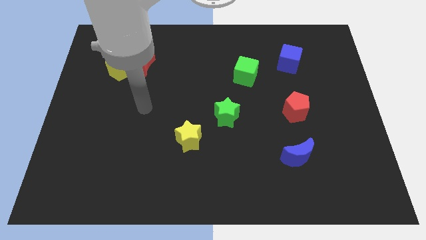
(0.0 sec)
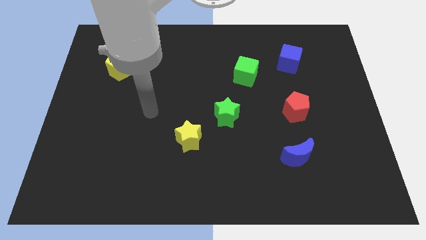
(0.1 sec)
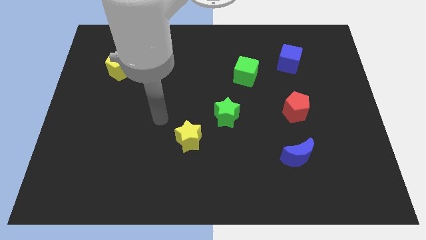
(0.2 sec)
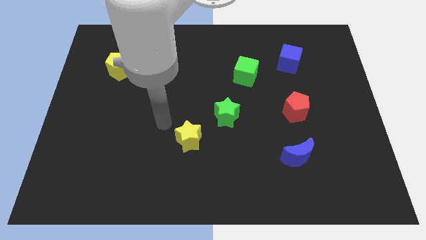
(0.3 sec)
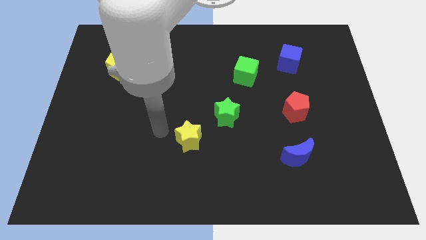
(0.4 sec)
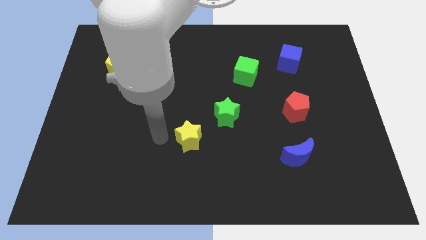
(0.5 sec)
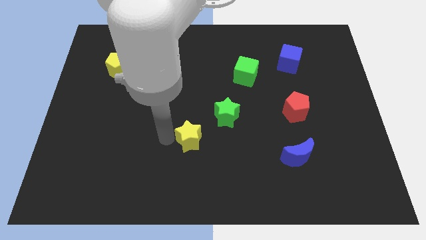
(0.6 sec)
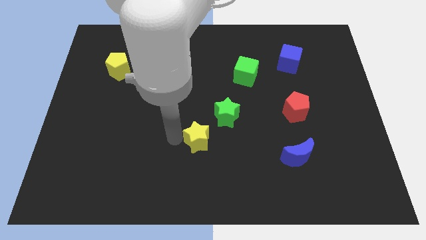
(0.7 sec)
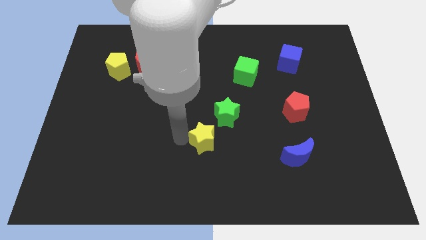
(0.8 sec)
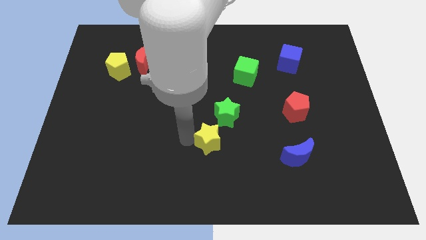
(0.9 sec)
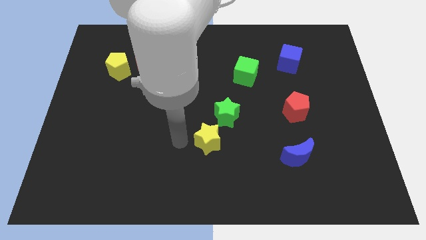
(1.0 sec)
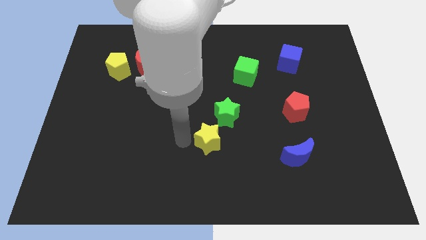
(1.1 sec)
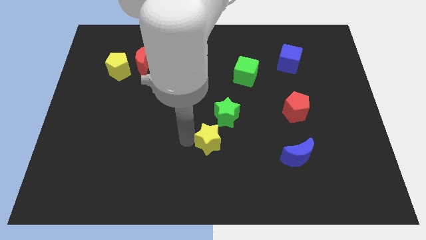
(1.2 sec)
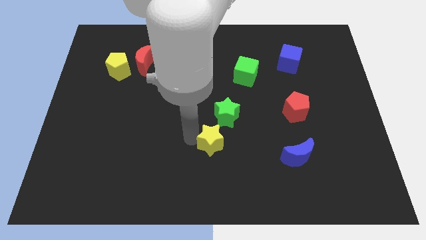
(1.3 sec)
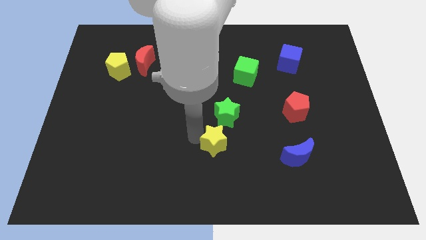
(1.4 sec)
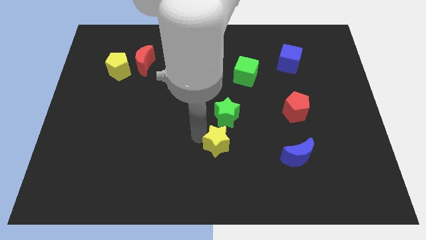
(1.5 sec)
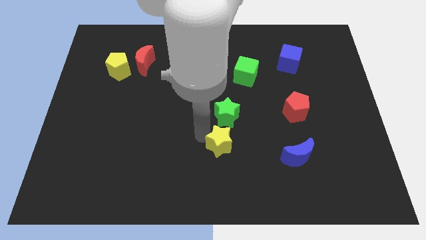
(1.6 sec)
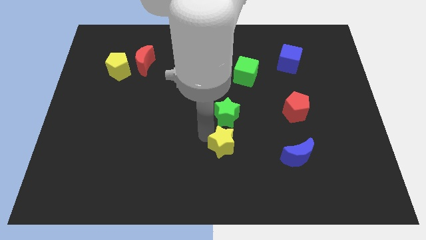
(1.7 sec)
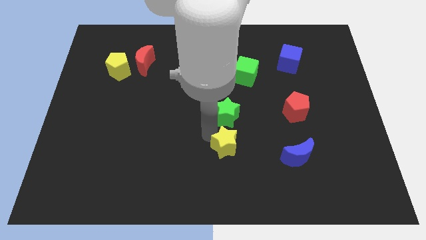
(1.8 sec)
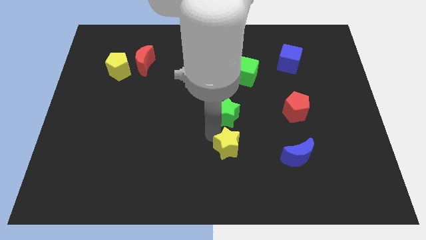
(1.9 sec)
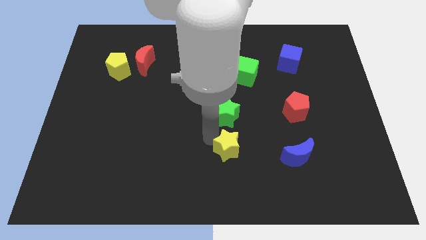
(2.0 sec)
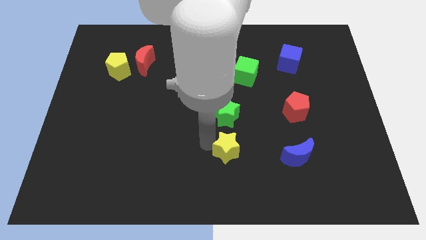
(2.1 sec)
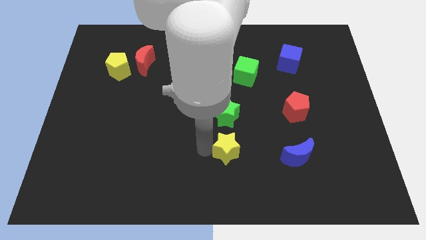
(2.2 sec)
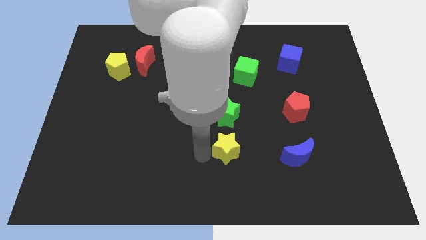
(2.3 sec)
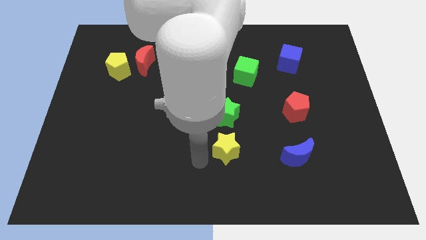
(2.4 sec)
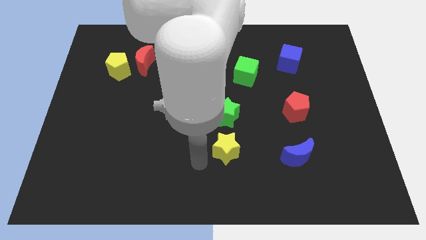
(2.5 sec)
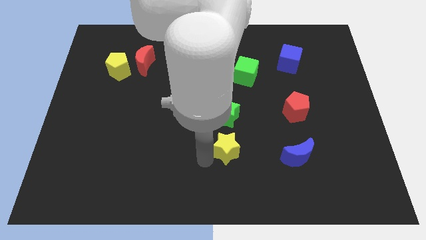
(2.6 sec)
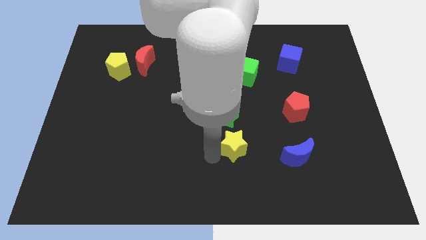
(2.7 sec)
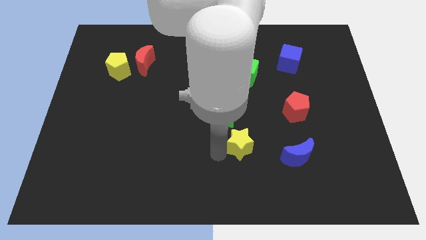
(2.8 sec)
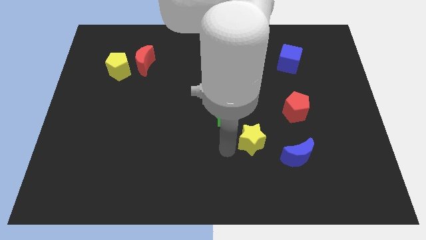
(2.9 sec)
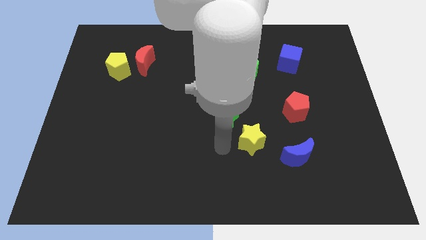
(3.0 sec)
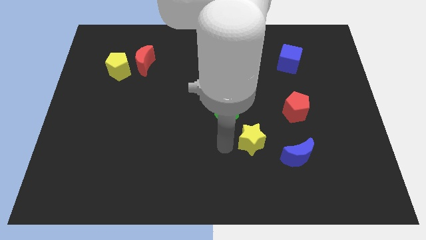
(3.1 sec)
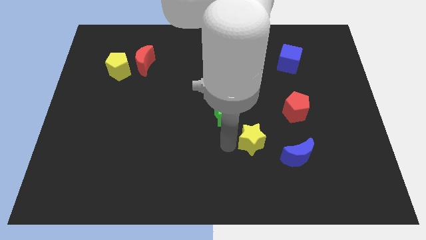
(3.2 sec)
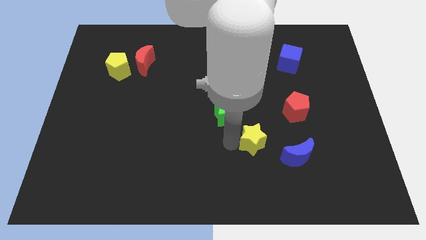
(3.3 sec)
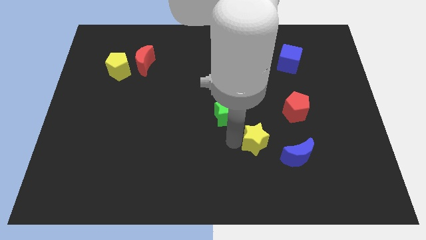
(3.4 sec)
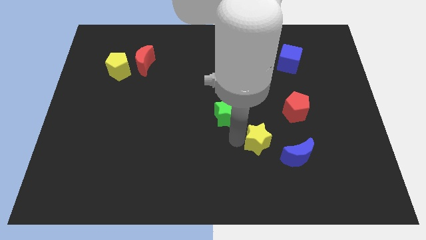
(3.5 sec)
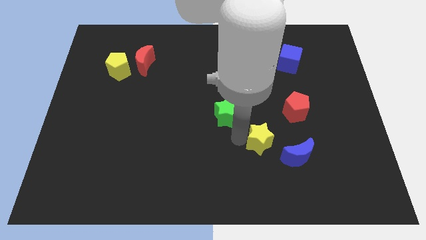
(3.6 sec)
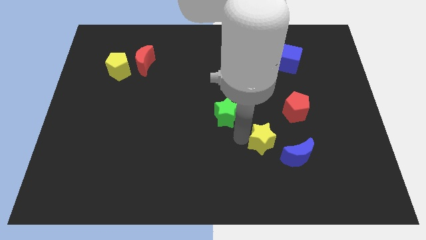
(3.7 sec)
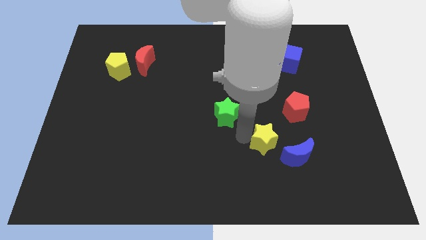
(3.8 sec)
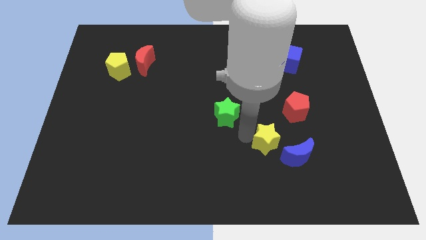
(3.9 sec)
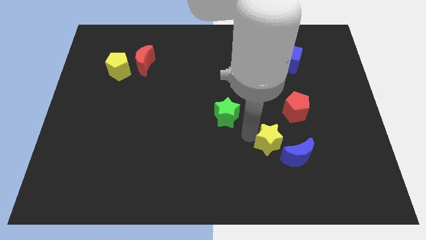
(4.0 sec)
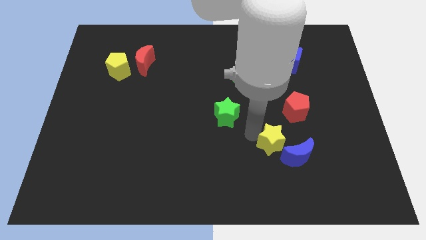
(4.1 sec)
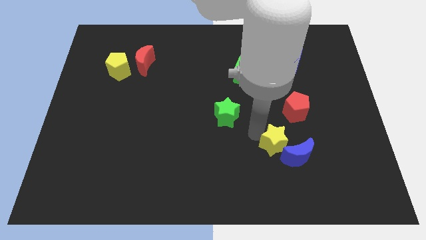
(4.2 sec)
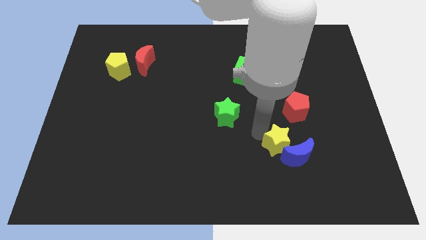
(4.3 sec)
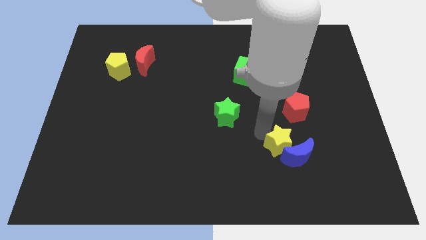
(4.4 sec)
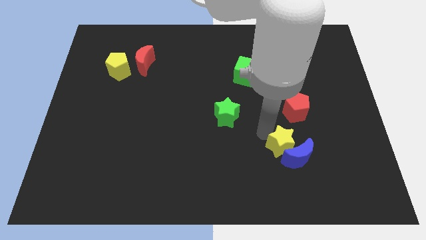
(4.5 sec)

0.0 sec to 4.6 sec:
move the yellow star to the right

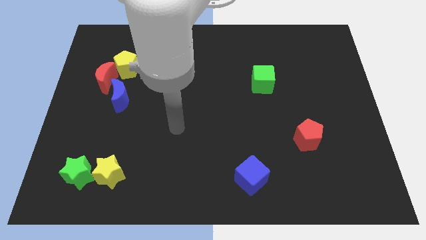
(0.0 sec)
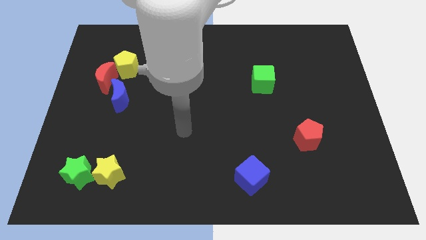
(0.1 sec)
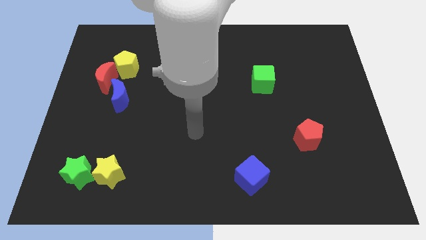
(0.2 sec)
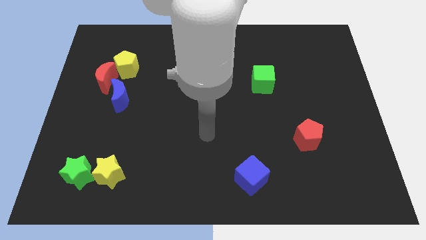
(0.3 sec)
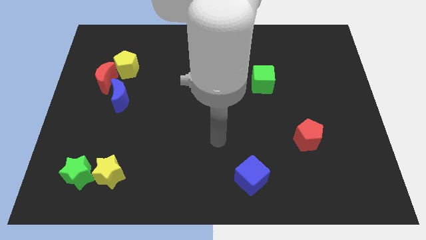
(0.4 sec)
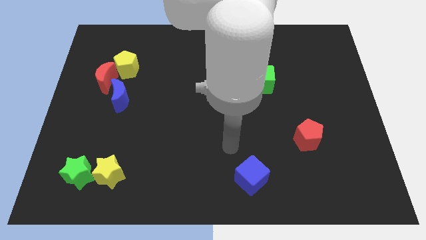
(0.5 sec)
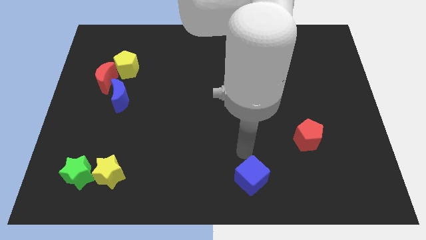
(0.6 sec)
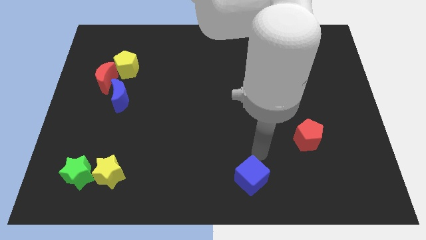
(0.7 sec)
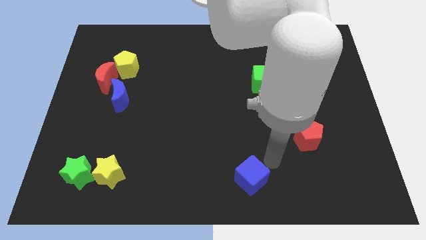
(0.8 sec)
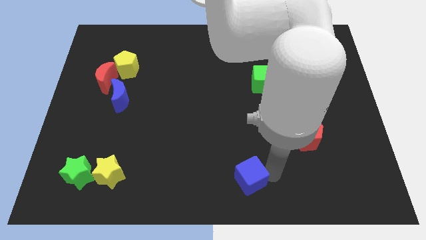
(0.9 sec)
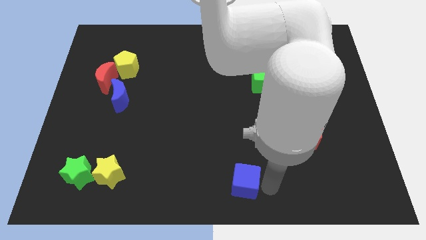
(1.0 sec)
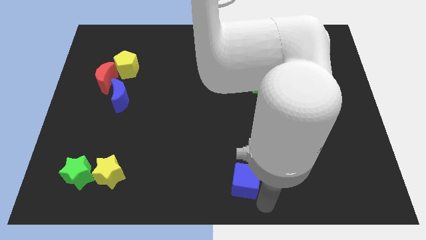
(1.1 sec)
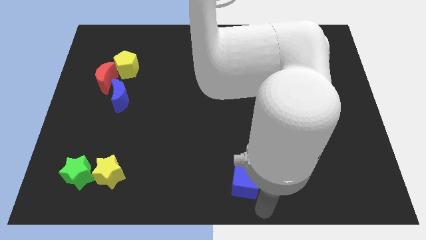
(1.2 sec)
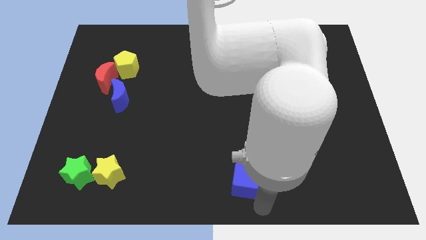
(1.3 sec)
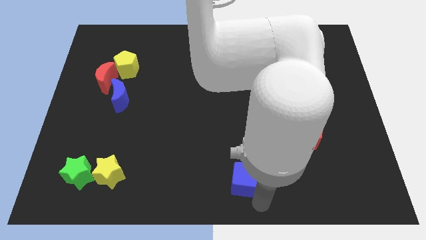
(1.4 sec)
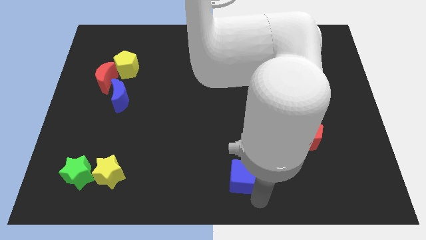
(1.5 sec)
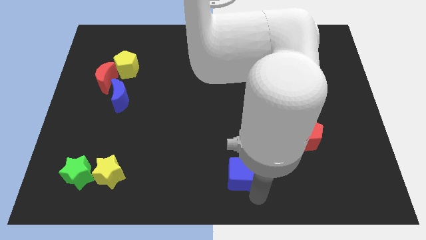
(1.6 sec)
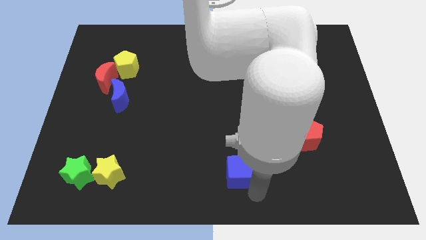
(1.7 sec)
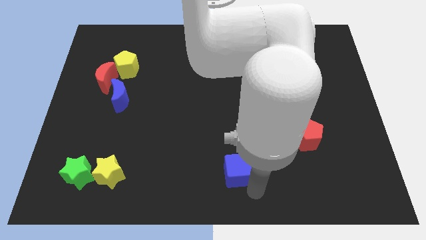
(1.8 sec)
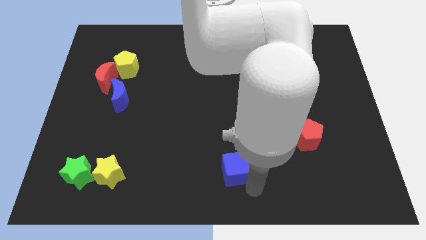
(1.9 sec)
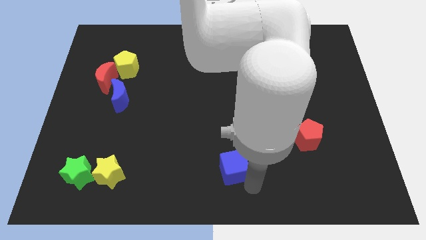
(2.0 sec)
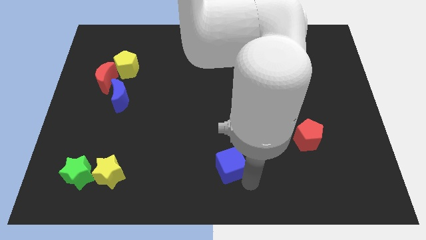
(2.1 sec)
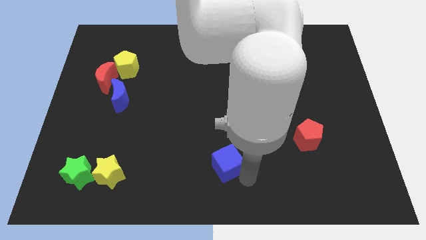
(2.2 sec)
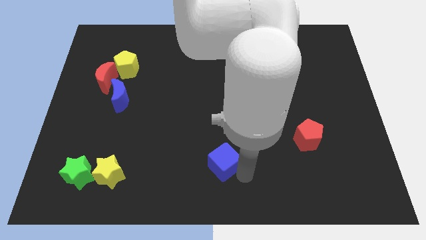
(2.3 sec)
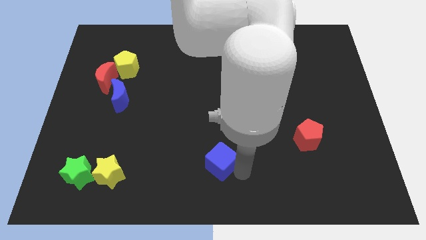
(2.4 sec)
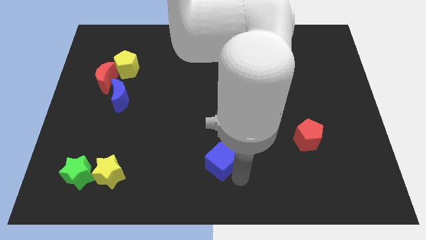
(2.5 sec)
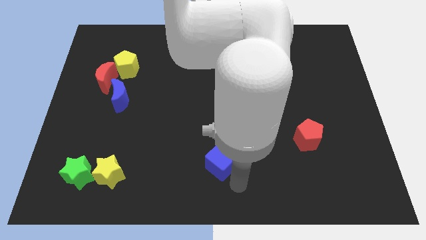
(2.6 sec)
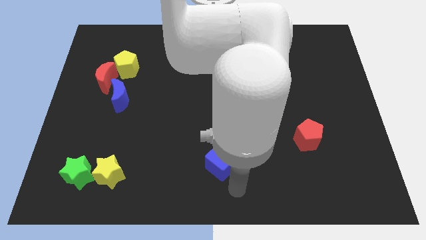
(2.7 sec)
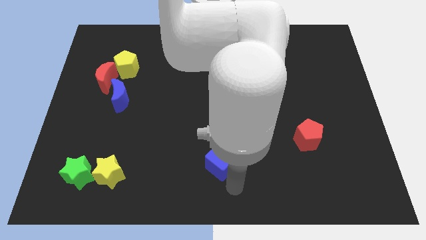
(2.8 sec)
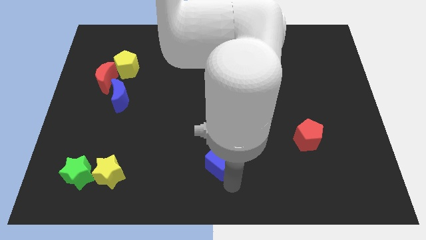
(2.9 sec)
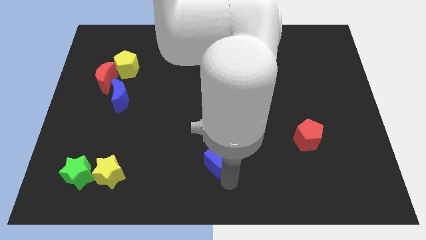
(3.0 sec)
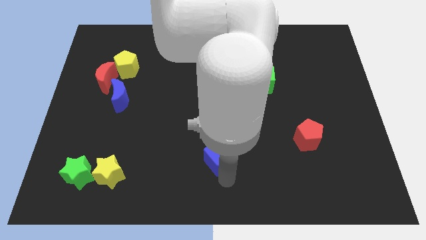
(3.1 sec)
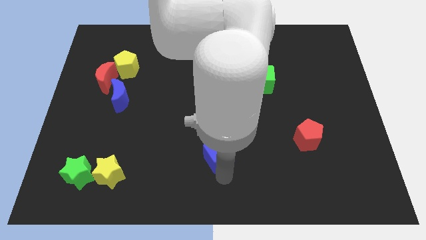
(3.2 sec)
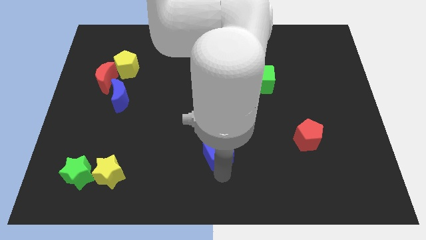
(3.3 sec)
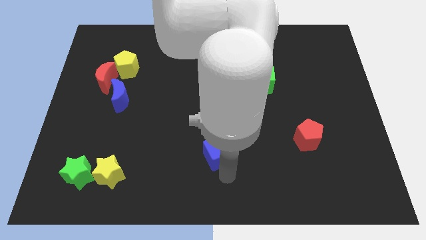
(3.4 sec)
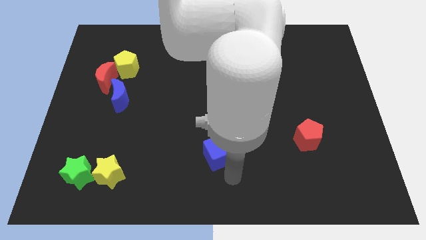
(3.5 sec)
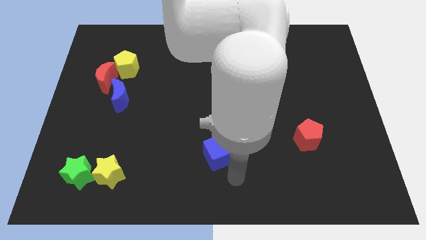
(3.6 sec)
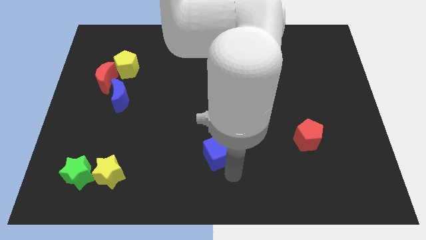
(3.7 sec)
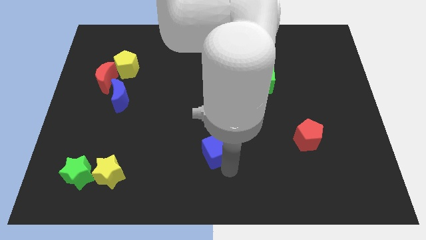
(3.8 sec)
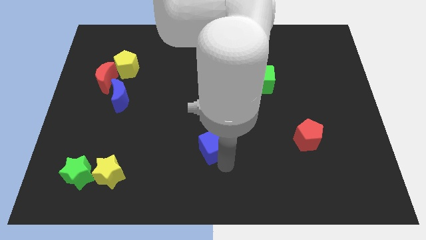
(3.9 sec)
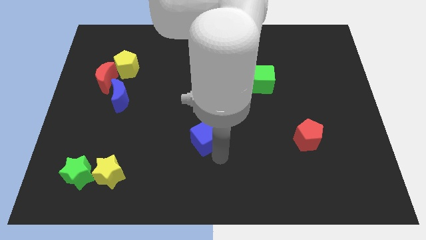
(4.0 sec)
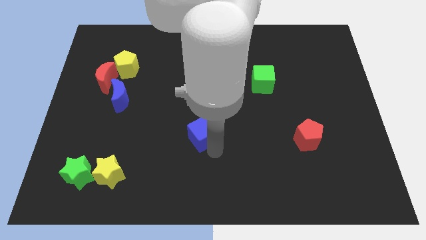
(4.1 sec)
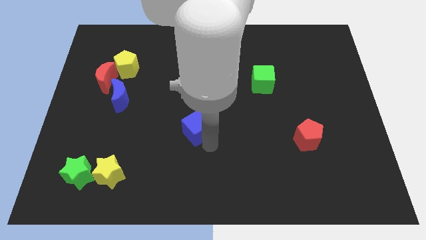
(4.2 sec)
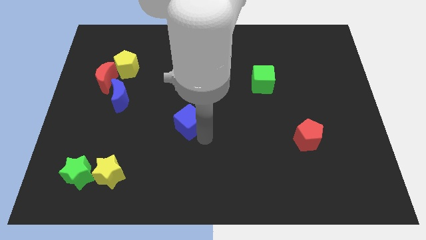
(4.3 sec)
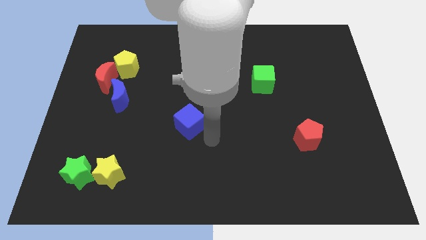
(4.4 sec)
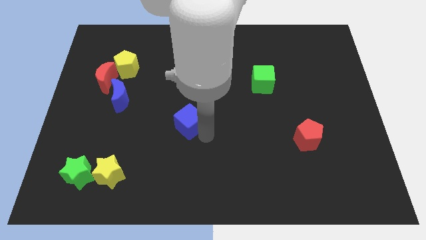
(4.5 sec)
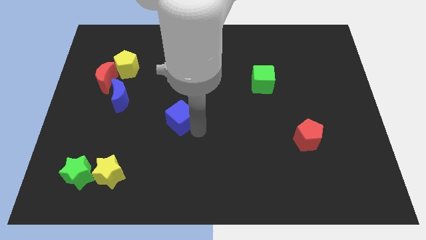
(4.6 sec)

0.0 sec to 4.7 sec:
push the blue cube diagonally up and to the left
